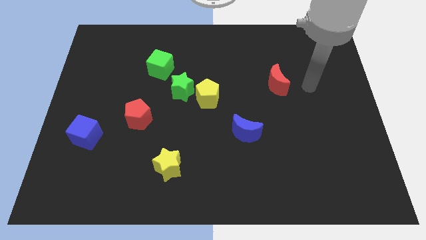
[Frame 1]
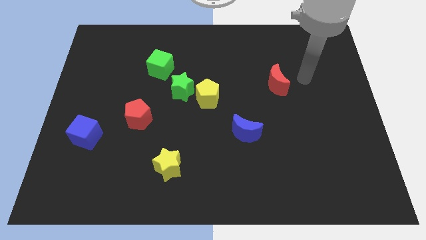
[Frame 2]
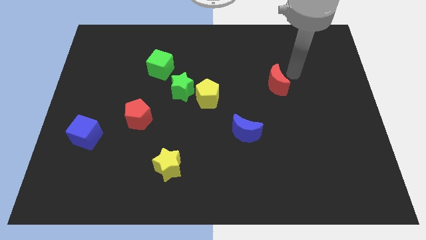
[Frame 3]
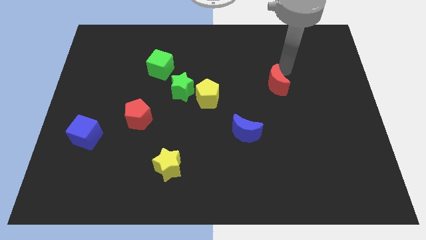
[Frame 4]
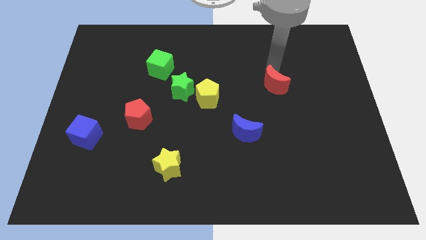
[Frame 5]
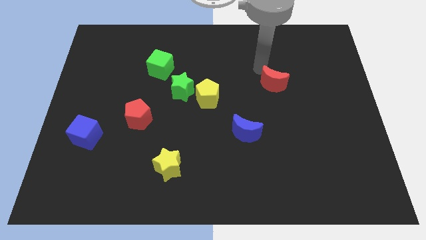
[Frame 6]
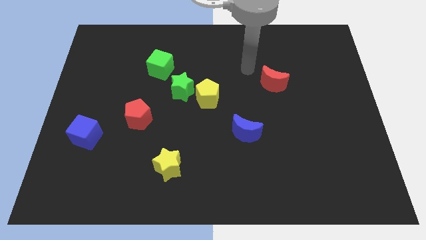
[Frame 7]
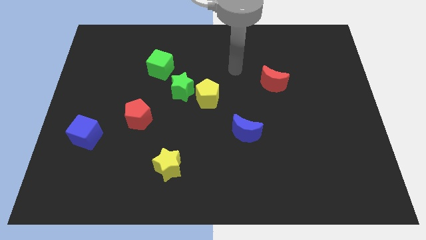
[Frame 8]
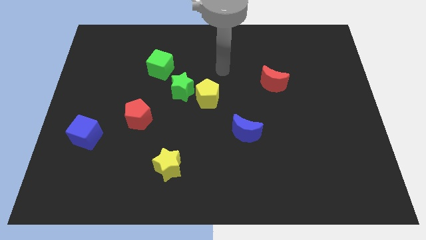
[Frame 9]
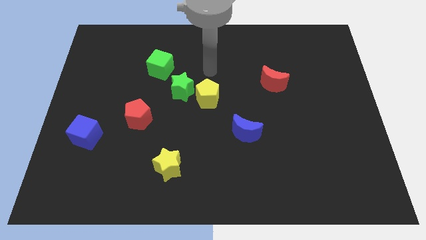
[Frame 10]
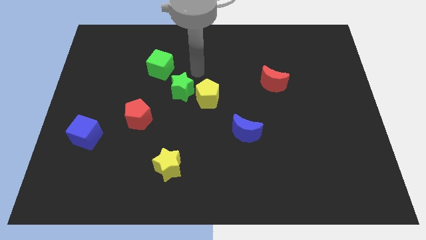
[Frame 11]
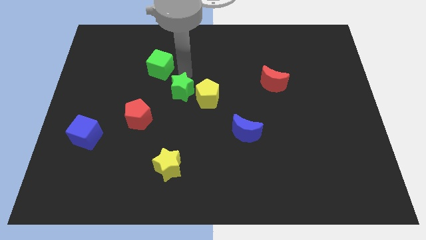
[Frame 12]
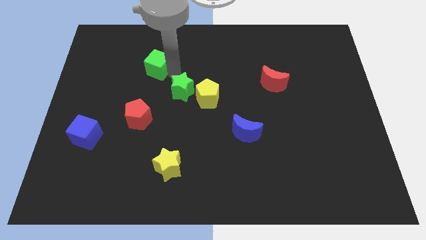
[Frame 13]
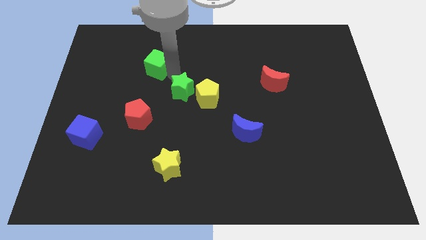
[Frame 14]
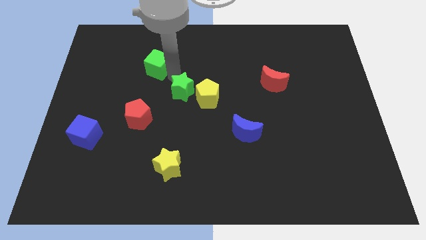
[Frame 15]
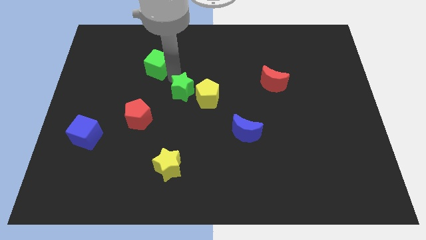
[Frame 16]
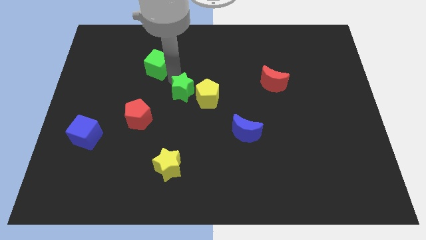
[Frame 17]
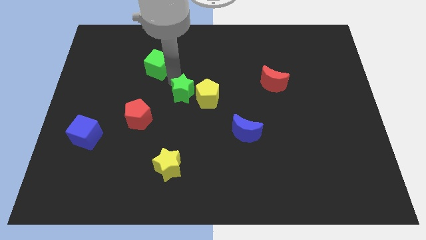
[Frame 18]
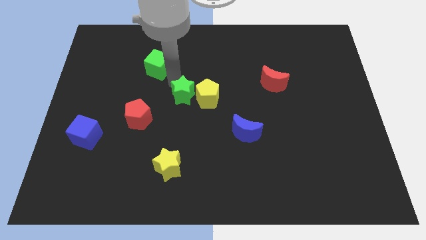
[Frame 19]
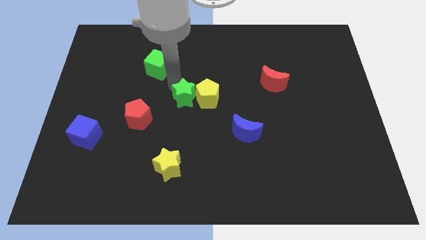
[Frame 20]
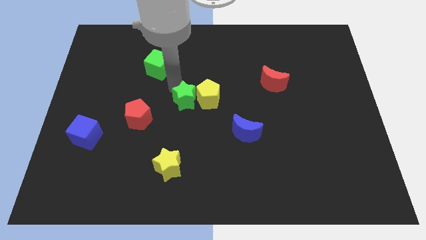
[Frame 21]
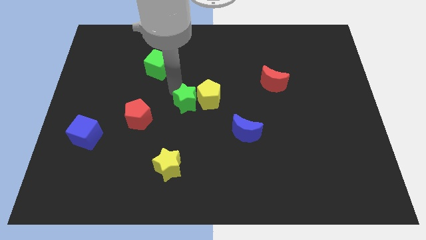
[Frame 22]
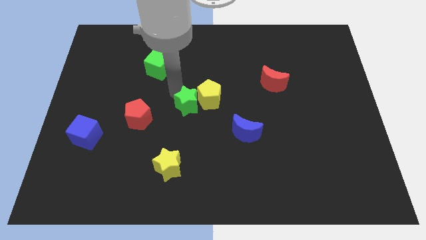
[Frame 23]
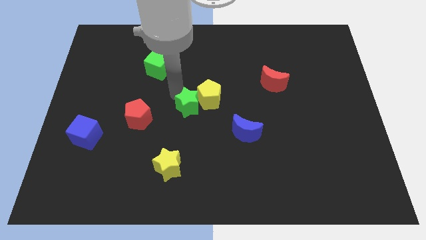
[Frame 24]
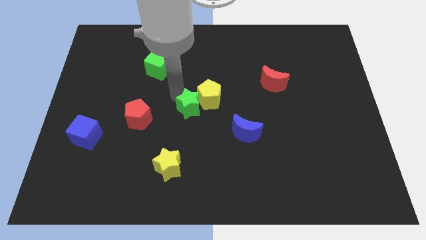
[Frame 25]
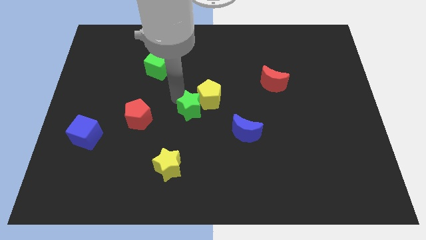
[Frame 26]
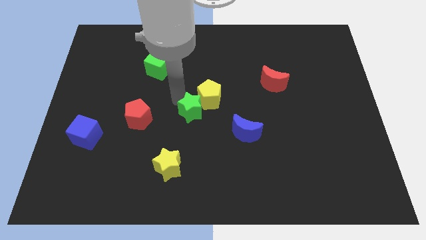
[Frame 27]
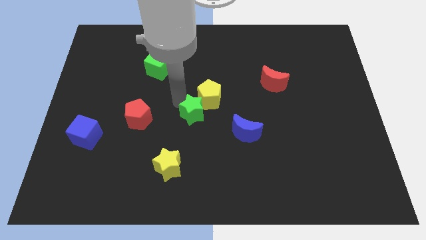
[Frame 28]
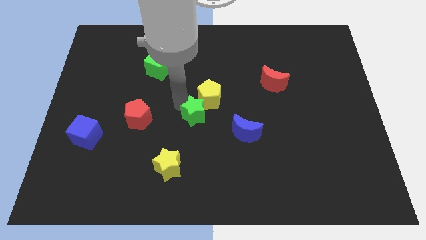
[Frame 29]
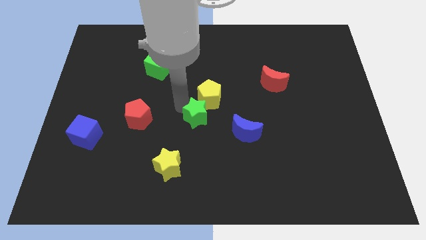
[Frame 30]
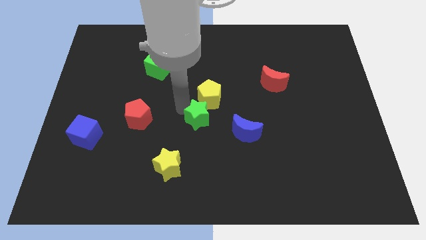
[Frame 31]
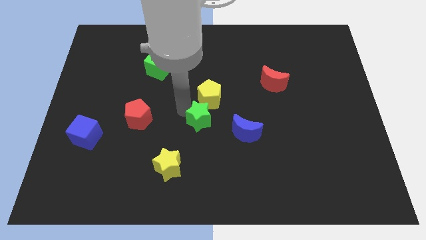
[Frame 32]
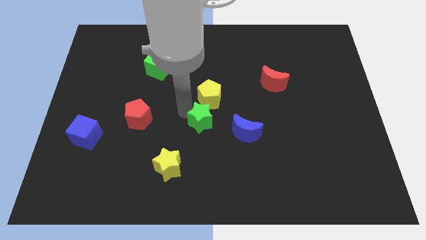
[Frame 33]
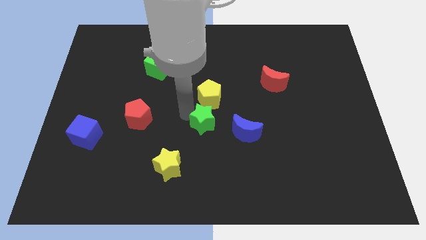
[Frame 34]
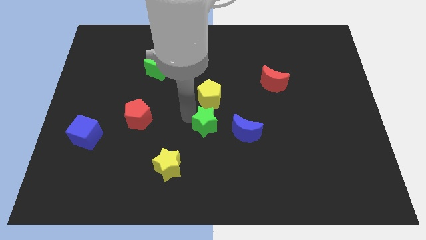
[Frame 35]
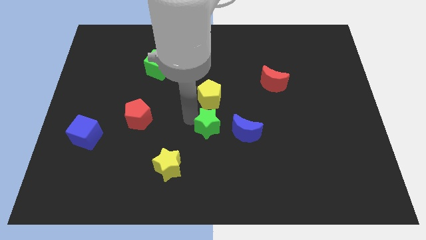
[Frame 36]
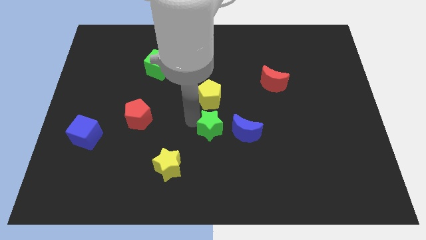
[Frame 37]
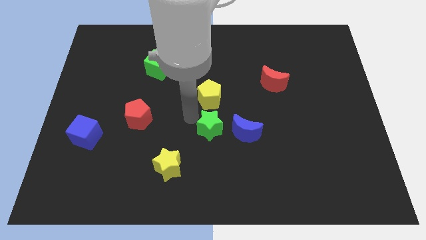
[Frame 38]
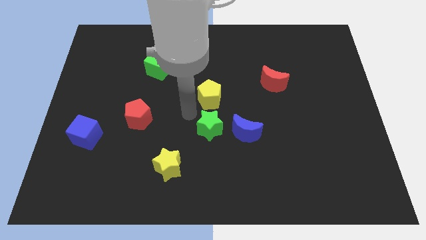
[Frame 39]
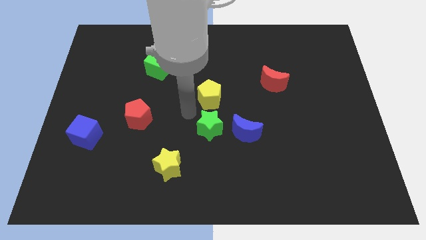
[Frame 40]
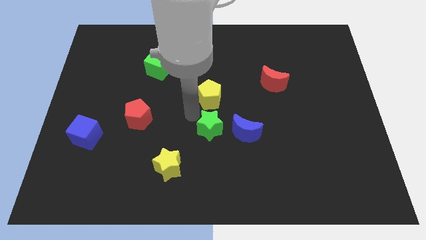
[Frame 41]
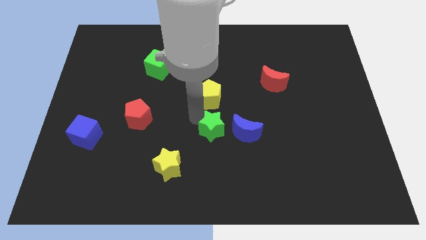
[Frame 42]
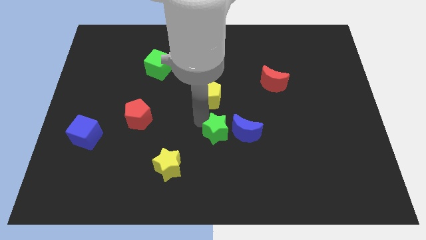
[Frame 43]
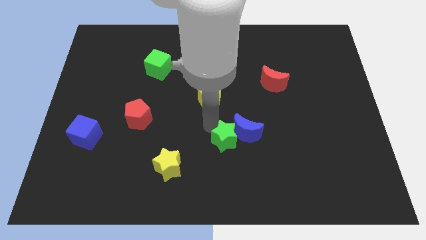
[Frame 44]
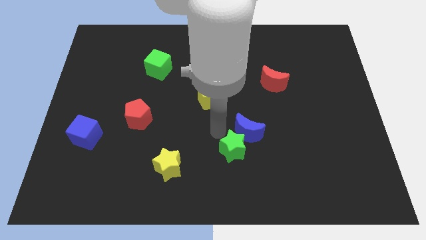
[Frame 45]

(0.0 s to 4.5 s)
push the green star downwards and to the right diagonally

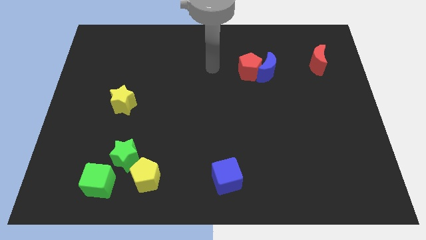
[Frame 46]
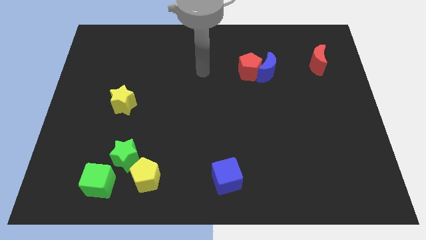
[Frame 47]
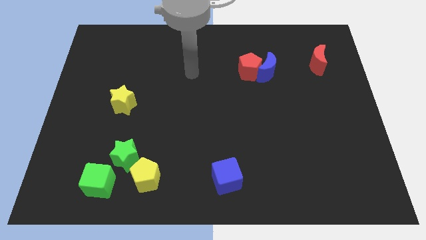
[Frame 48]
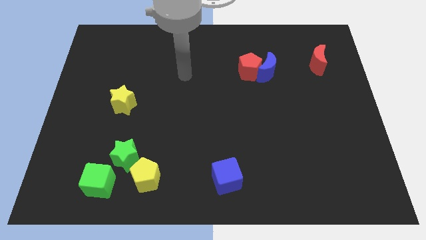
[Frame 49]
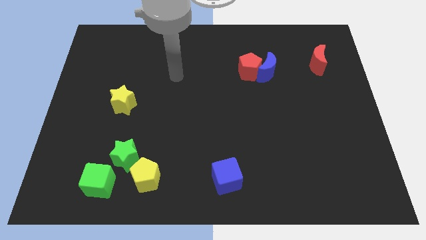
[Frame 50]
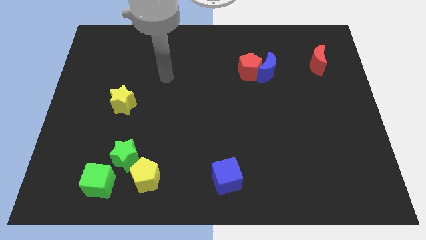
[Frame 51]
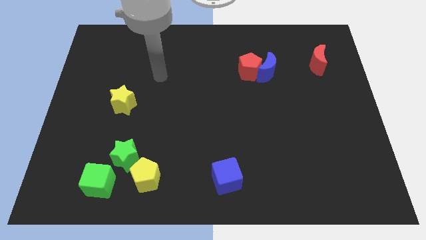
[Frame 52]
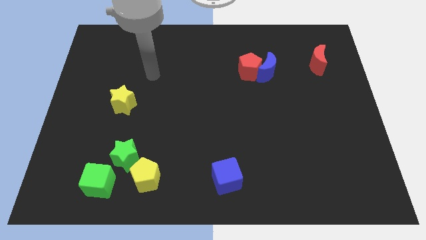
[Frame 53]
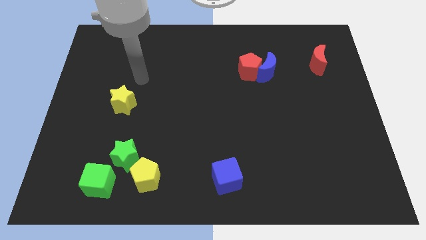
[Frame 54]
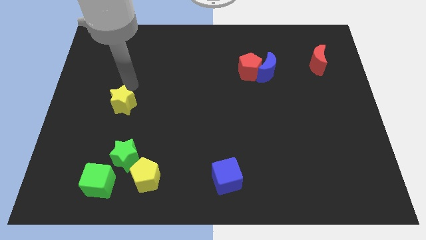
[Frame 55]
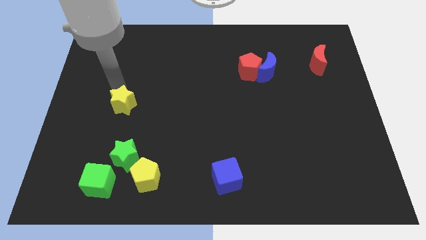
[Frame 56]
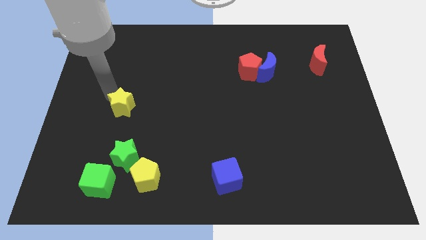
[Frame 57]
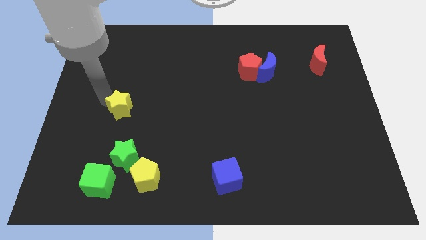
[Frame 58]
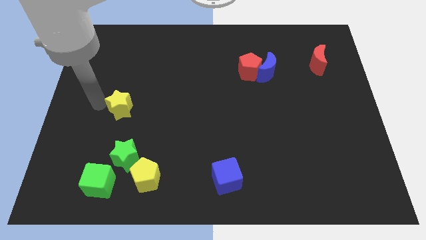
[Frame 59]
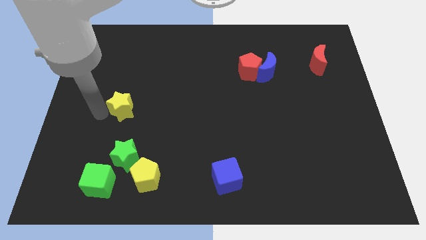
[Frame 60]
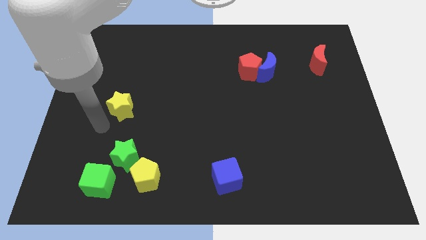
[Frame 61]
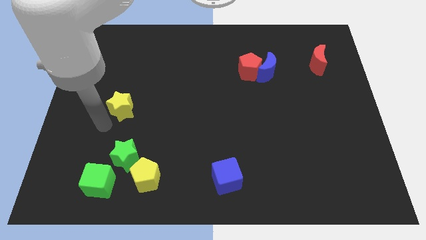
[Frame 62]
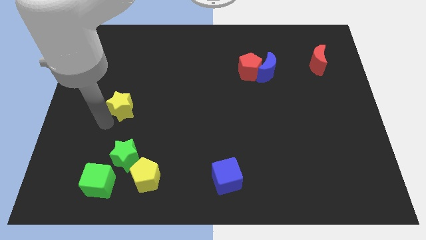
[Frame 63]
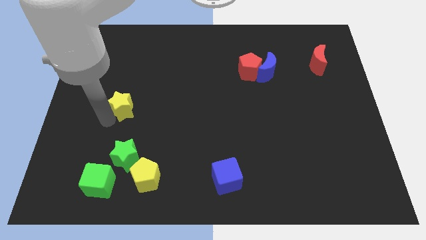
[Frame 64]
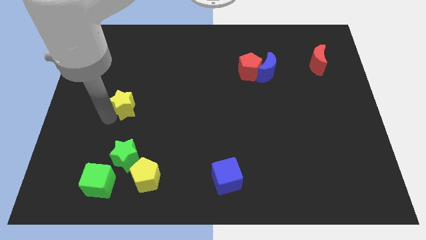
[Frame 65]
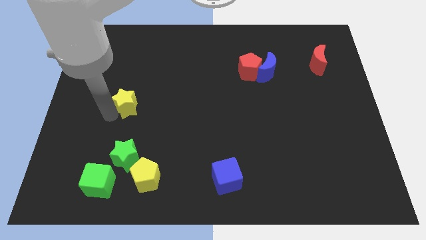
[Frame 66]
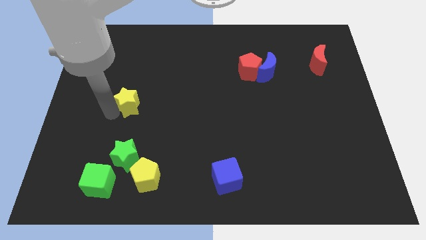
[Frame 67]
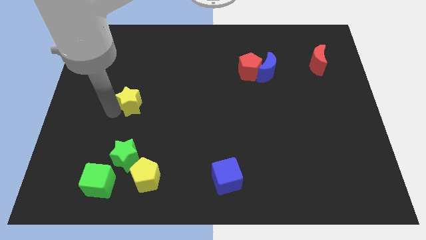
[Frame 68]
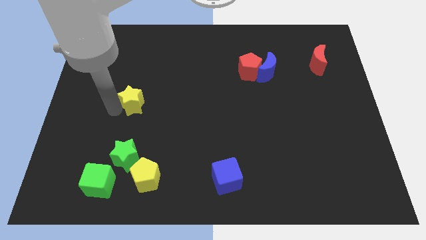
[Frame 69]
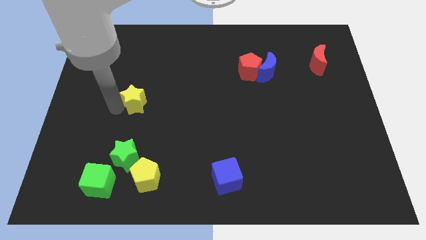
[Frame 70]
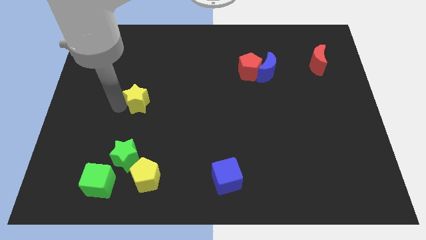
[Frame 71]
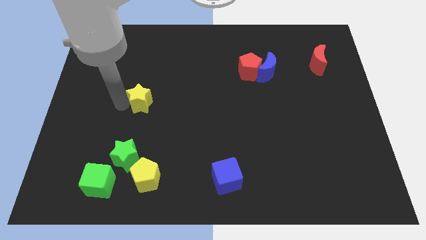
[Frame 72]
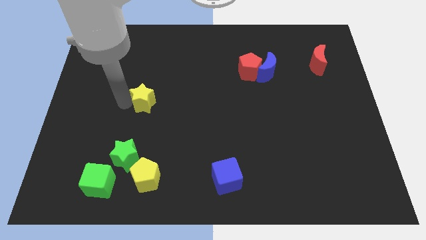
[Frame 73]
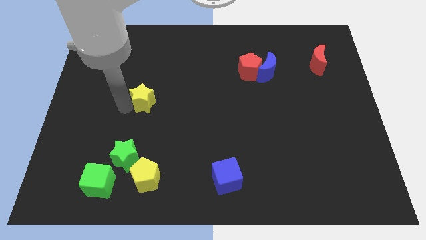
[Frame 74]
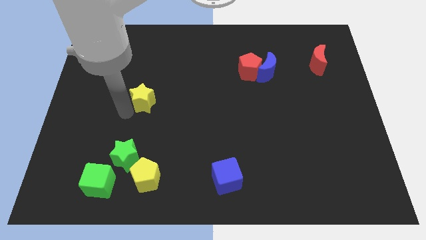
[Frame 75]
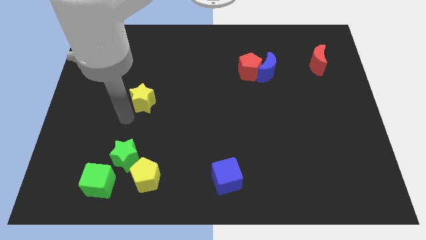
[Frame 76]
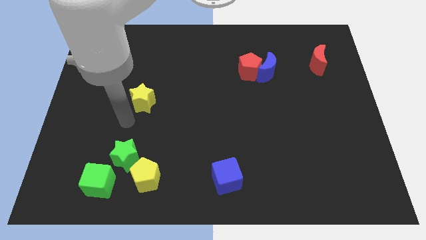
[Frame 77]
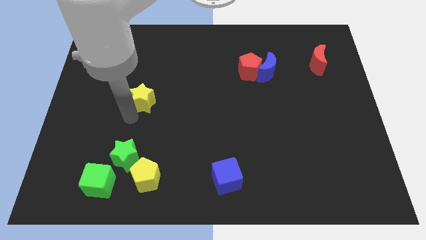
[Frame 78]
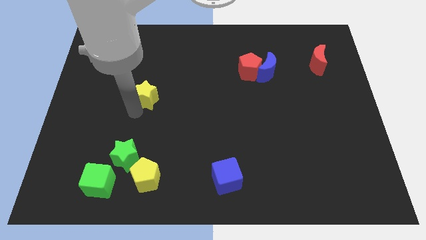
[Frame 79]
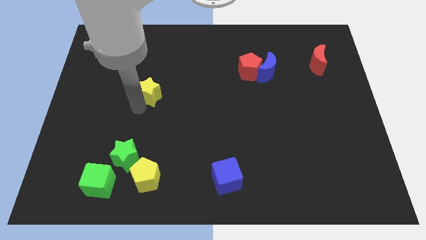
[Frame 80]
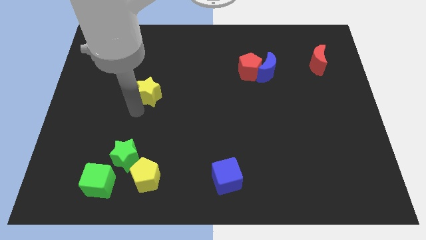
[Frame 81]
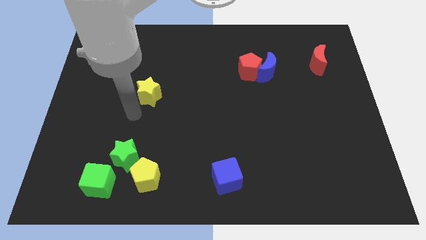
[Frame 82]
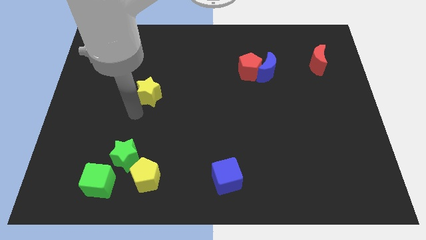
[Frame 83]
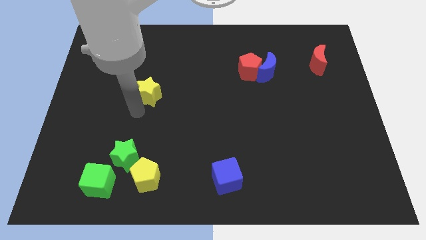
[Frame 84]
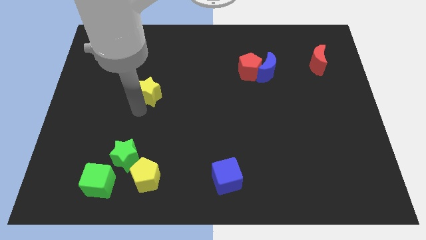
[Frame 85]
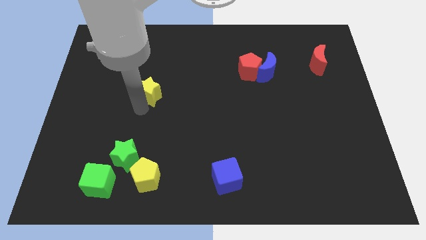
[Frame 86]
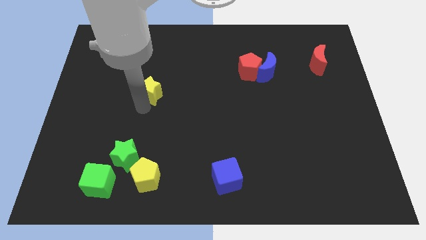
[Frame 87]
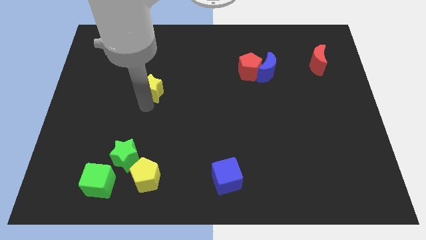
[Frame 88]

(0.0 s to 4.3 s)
slightly move the yellow star up and to the right diagonally
